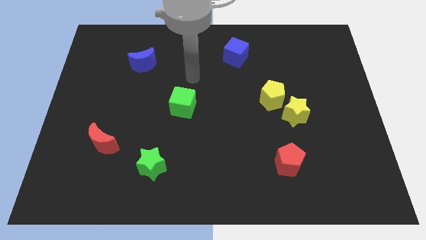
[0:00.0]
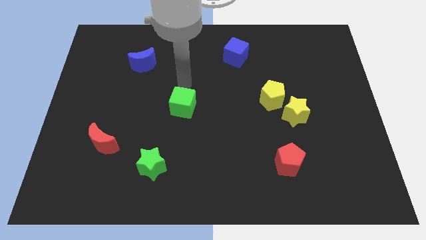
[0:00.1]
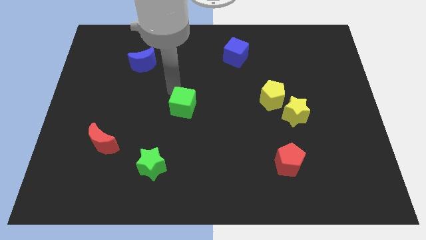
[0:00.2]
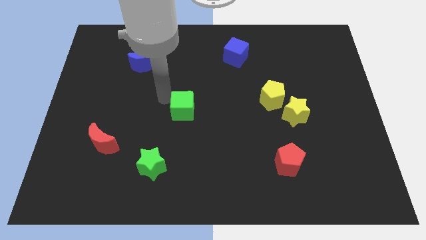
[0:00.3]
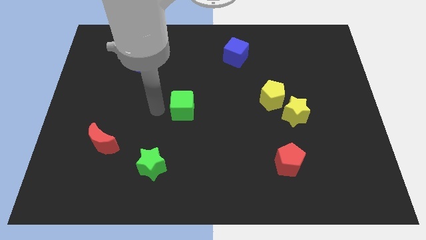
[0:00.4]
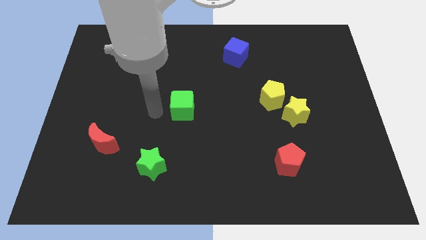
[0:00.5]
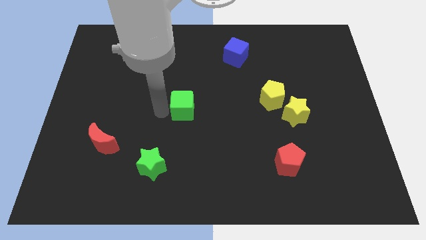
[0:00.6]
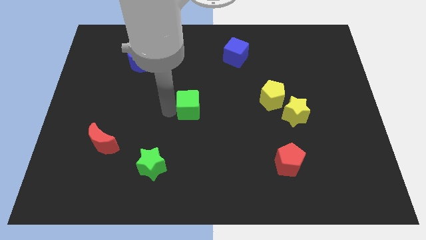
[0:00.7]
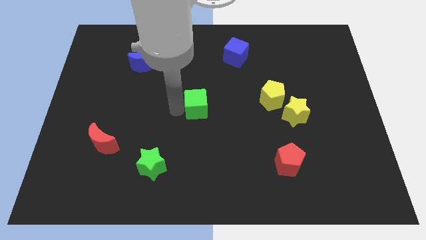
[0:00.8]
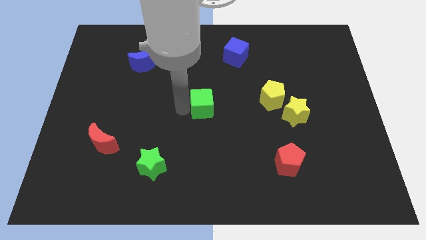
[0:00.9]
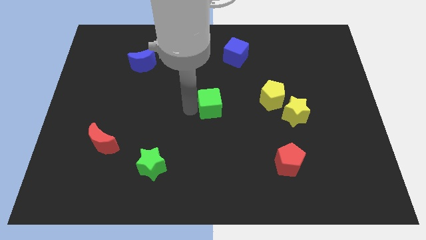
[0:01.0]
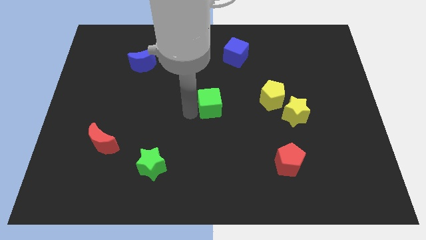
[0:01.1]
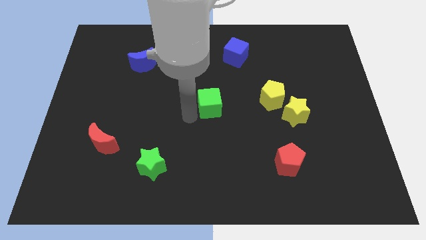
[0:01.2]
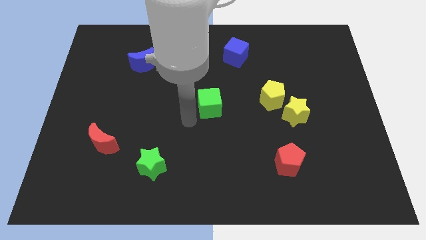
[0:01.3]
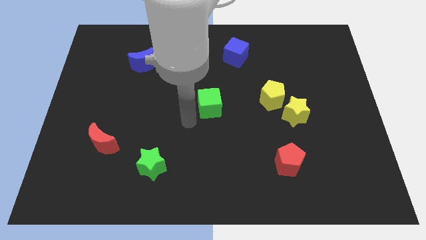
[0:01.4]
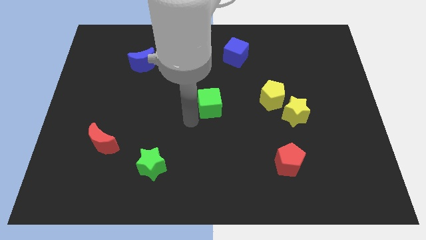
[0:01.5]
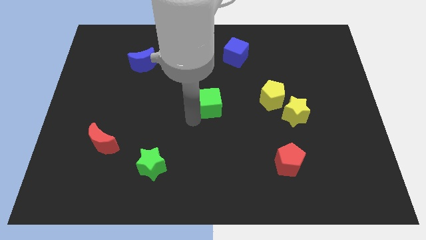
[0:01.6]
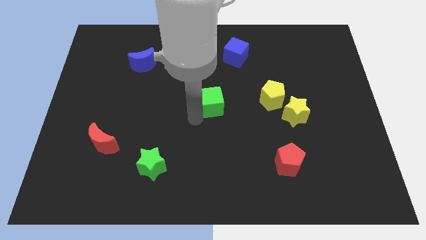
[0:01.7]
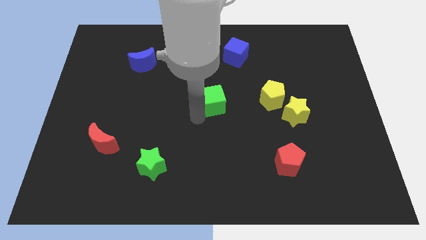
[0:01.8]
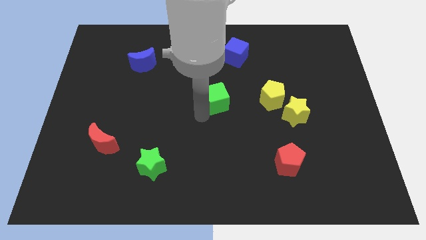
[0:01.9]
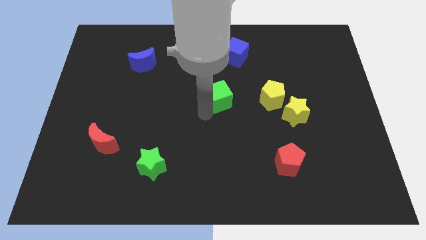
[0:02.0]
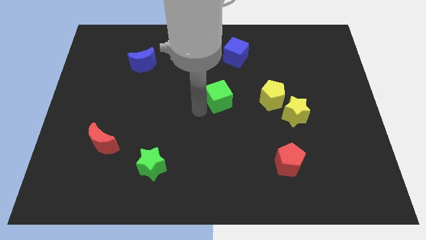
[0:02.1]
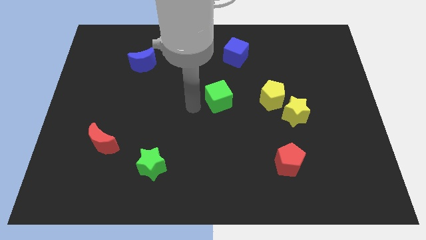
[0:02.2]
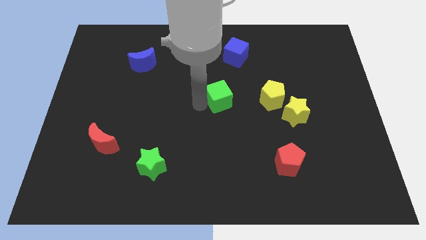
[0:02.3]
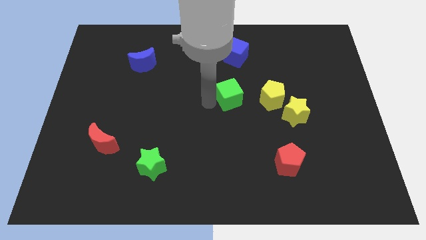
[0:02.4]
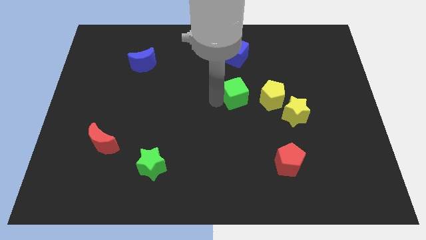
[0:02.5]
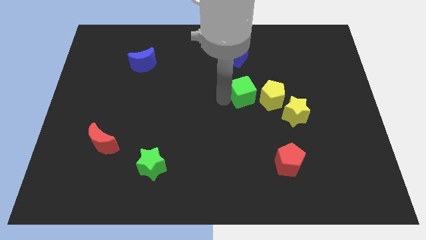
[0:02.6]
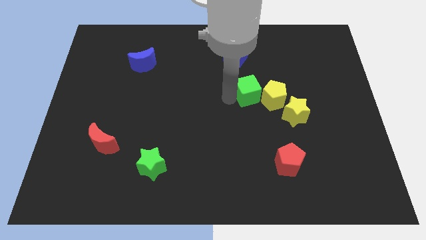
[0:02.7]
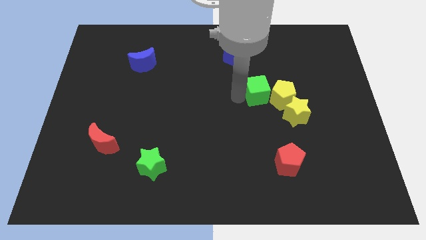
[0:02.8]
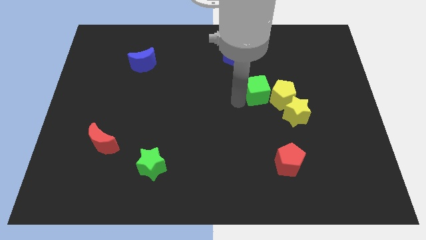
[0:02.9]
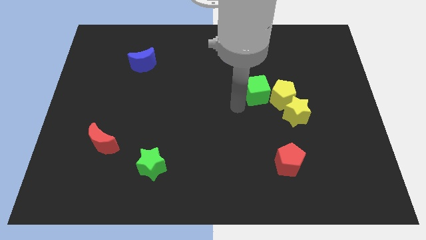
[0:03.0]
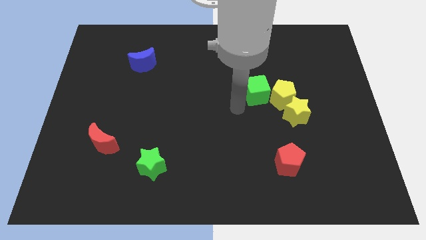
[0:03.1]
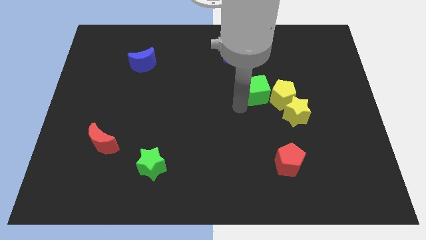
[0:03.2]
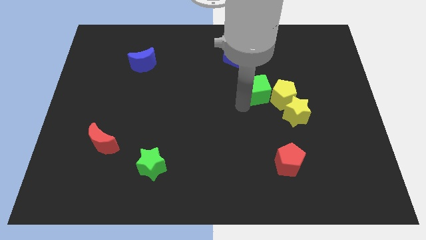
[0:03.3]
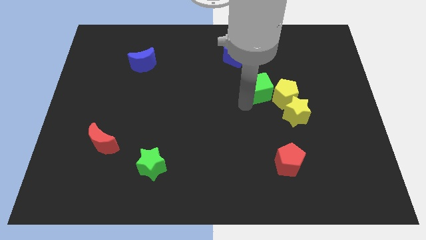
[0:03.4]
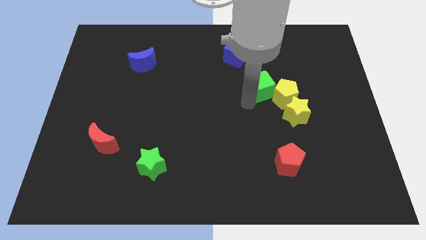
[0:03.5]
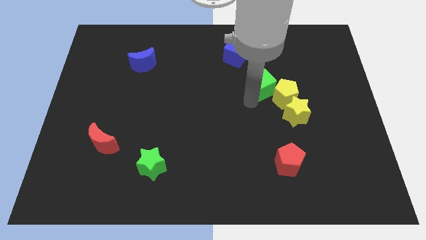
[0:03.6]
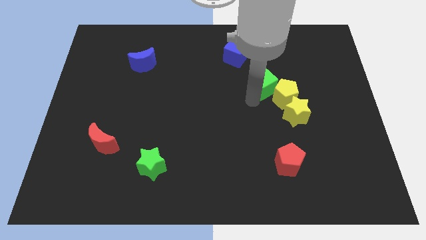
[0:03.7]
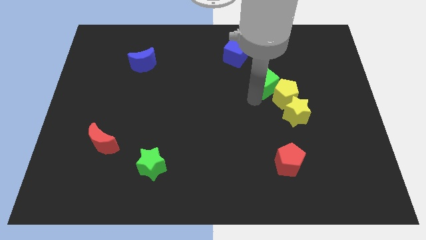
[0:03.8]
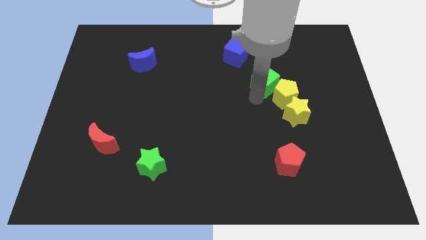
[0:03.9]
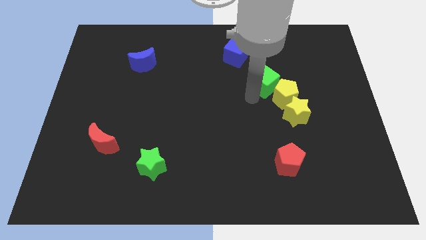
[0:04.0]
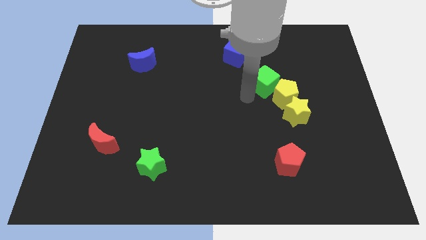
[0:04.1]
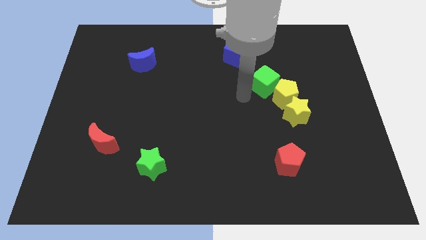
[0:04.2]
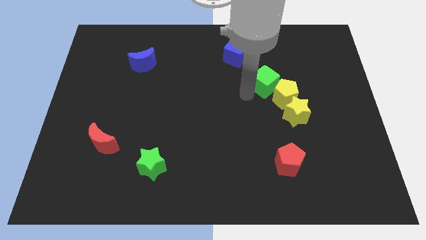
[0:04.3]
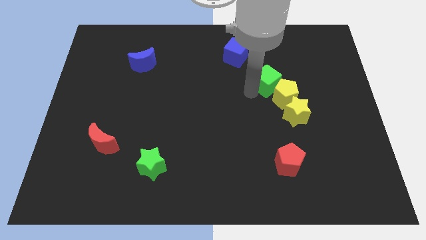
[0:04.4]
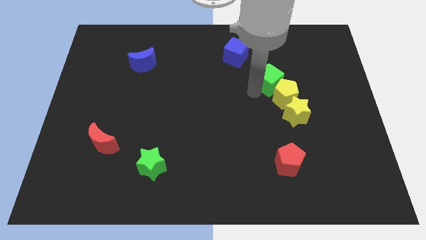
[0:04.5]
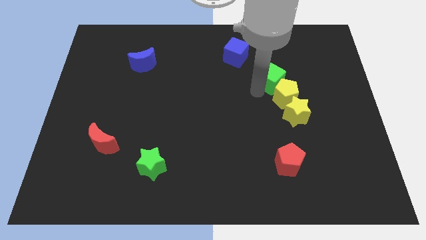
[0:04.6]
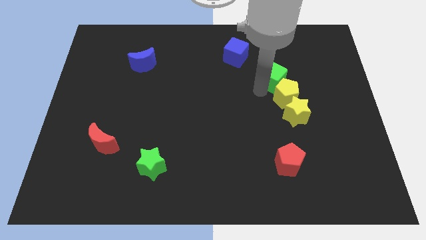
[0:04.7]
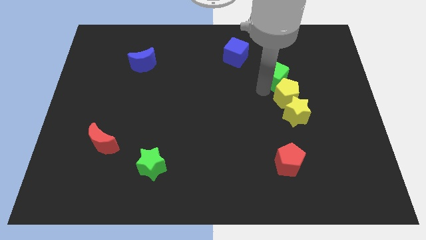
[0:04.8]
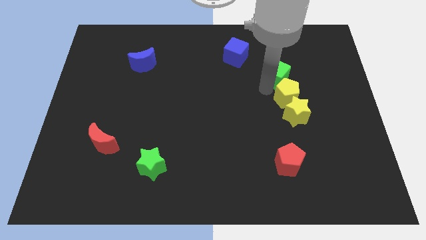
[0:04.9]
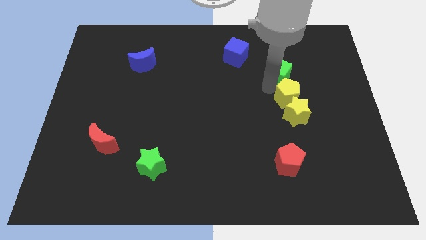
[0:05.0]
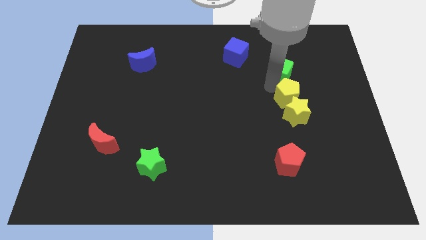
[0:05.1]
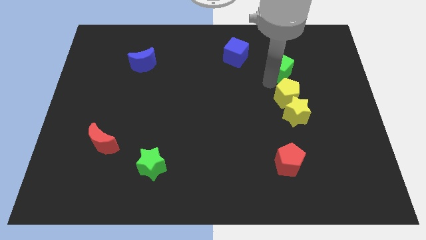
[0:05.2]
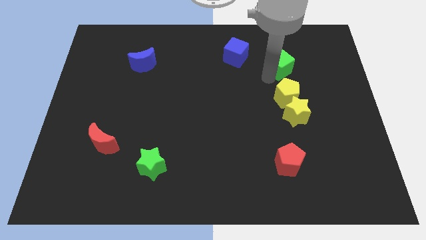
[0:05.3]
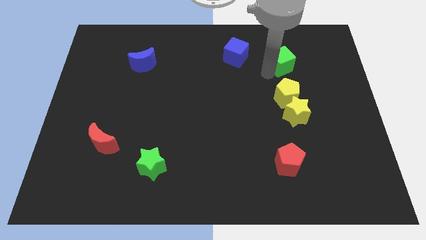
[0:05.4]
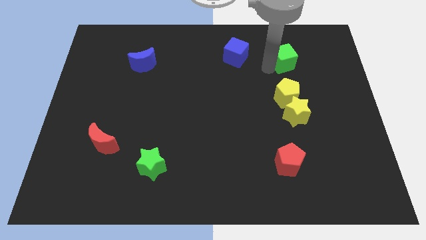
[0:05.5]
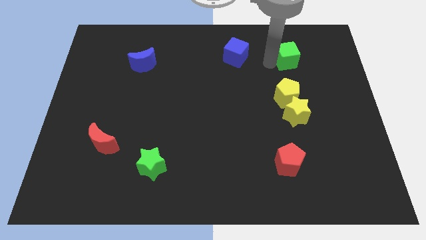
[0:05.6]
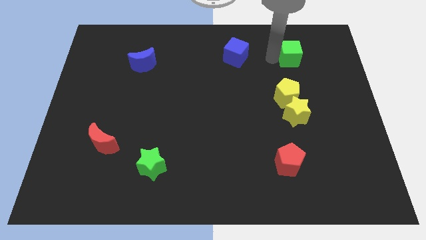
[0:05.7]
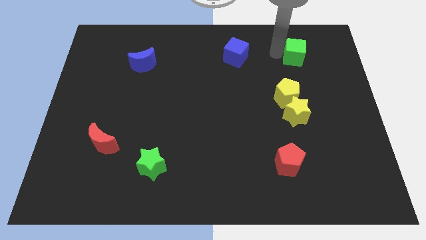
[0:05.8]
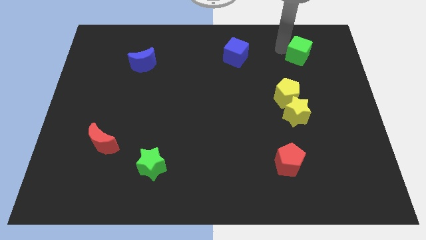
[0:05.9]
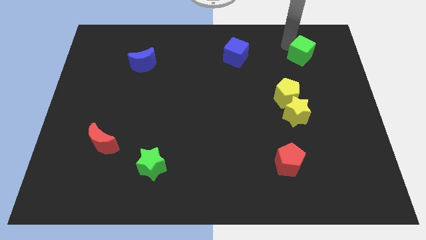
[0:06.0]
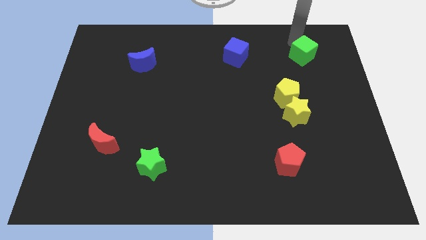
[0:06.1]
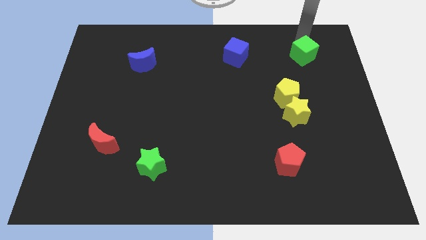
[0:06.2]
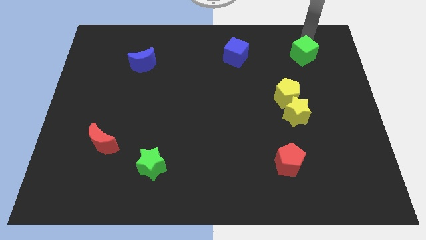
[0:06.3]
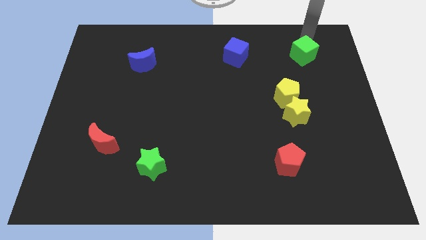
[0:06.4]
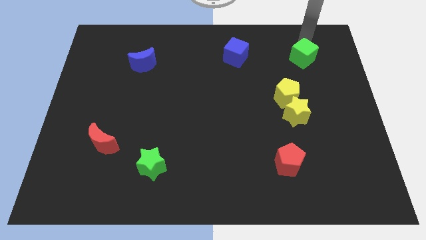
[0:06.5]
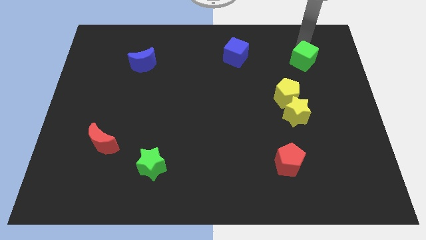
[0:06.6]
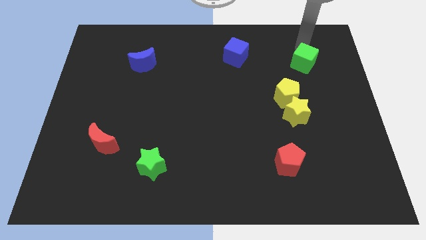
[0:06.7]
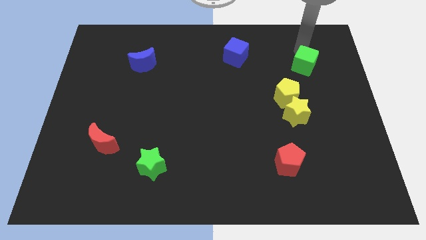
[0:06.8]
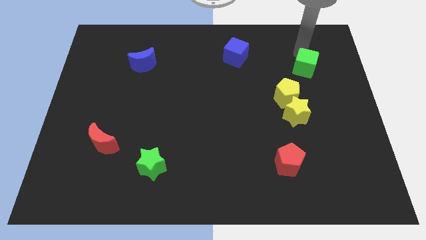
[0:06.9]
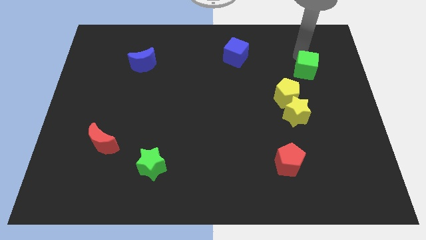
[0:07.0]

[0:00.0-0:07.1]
slide the green cube to the right

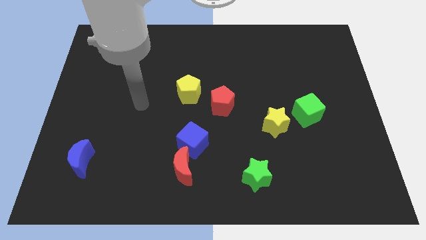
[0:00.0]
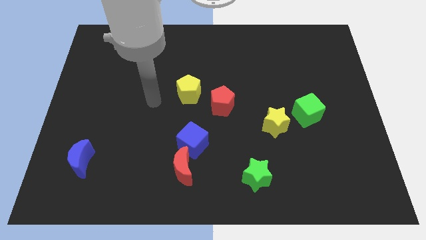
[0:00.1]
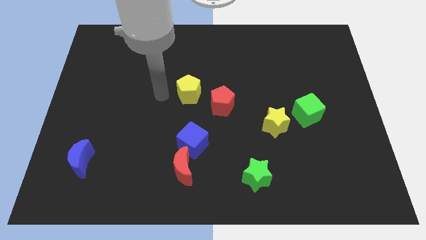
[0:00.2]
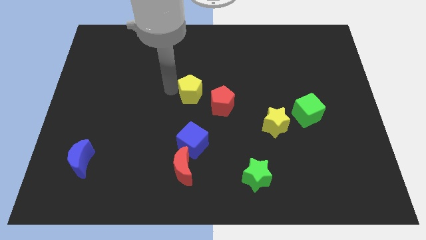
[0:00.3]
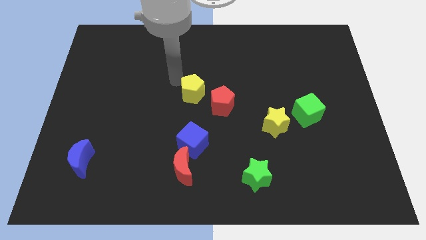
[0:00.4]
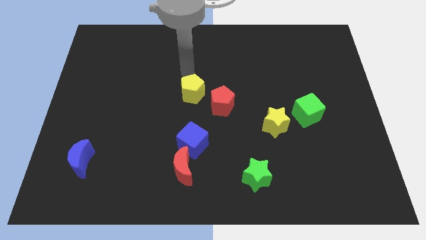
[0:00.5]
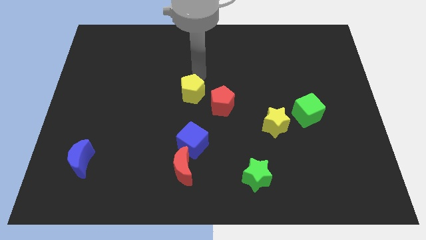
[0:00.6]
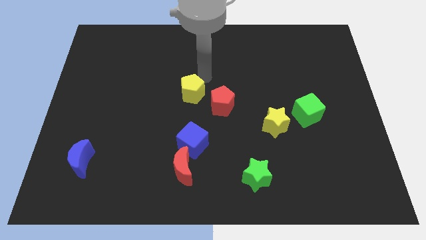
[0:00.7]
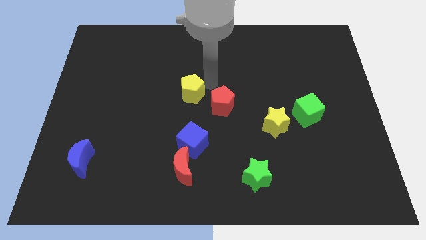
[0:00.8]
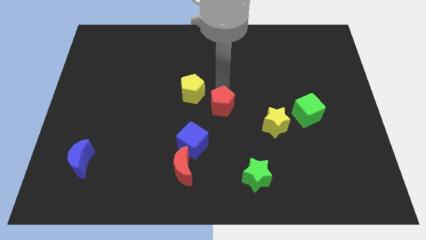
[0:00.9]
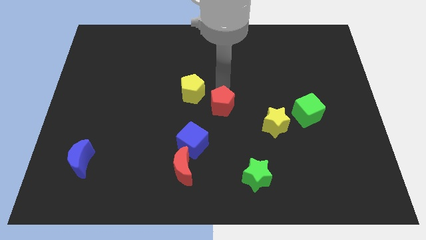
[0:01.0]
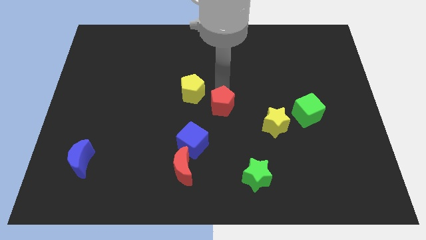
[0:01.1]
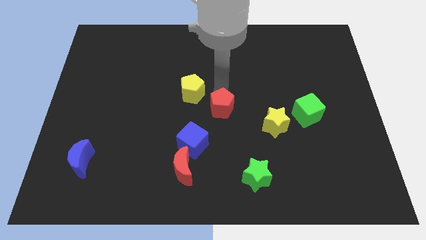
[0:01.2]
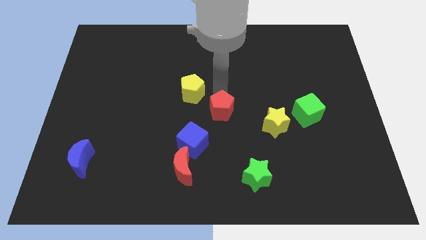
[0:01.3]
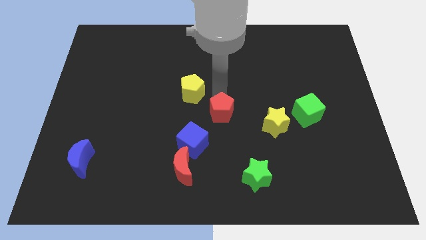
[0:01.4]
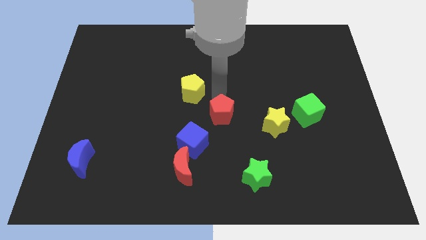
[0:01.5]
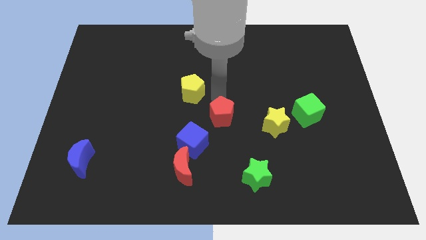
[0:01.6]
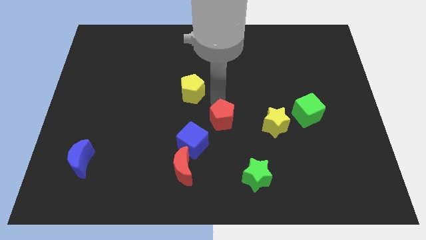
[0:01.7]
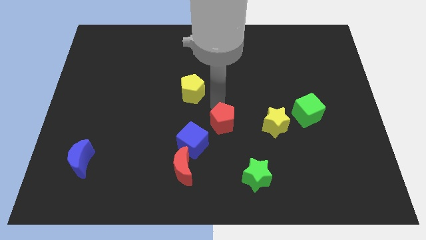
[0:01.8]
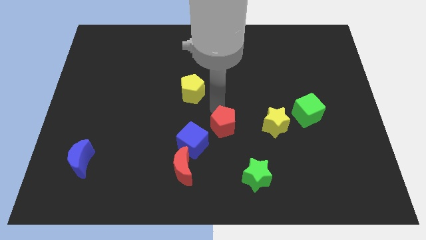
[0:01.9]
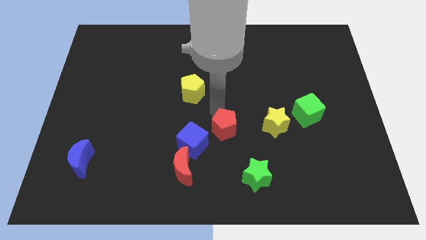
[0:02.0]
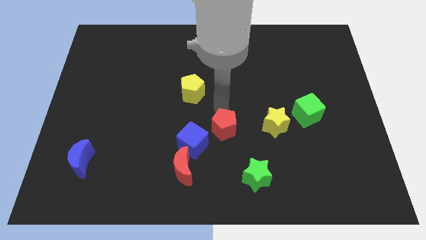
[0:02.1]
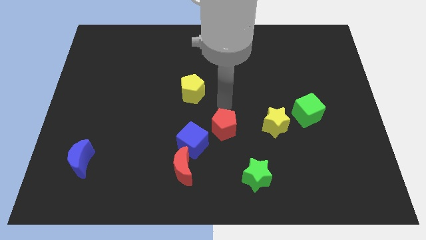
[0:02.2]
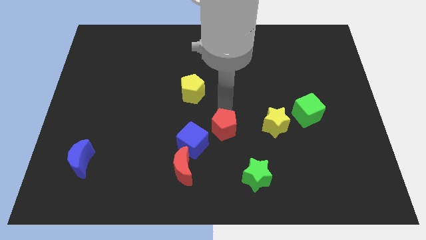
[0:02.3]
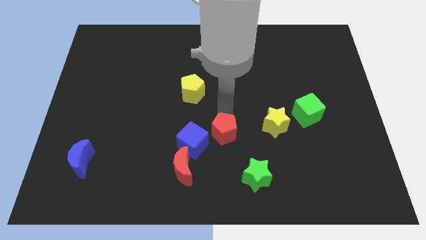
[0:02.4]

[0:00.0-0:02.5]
move the red pentagon down slightly
